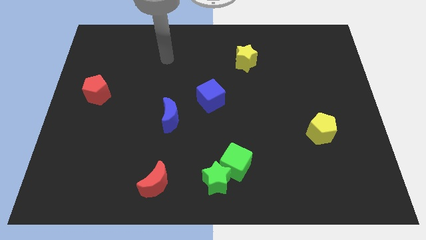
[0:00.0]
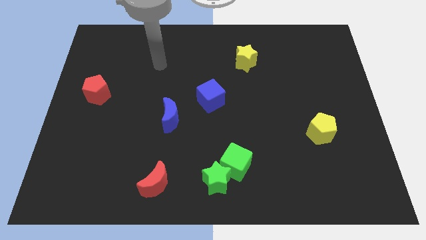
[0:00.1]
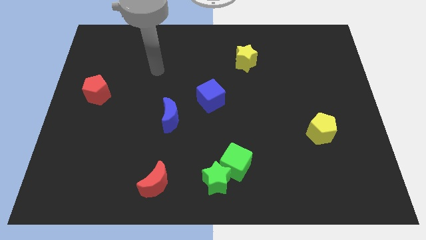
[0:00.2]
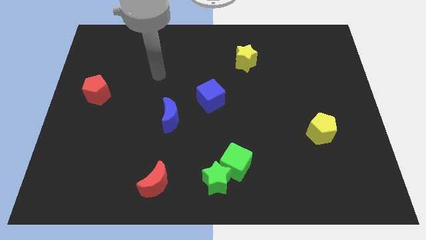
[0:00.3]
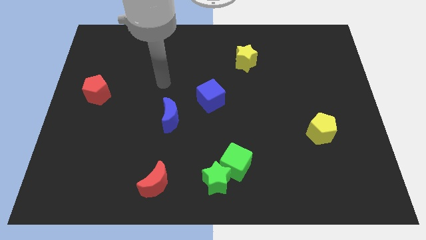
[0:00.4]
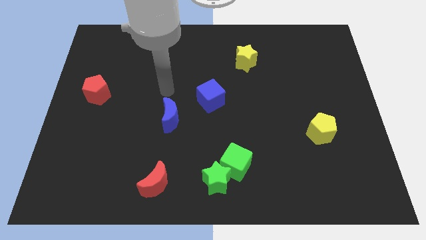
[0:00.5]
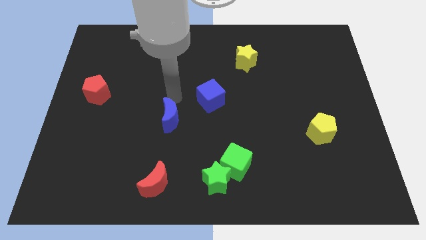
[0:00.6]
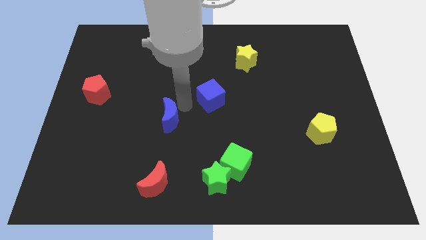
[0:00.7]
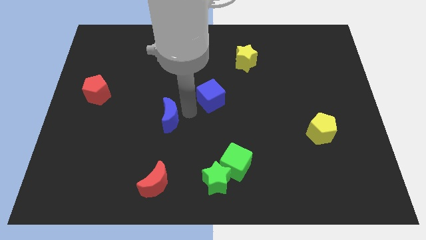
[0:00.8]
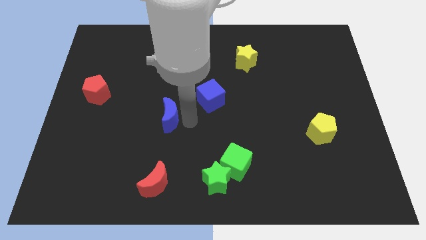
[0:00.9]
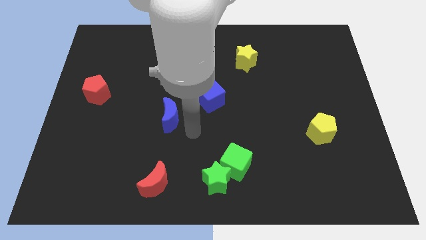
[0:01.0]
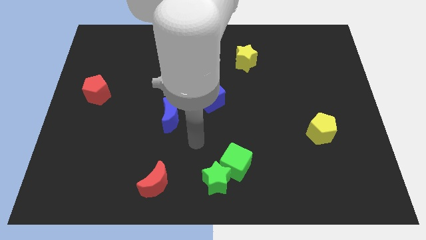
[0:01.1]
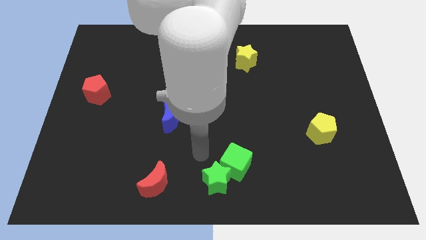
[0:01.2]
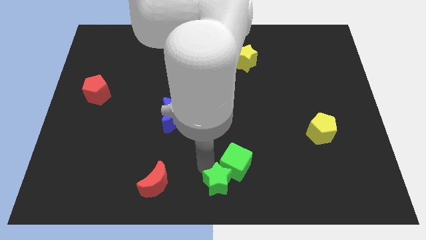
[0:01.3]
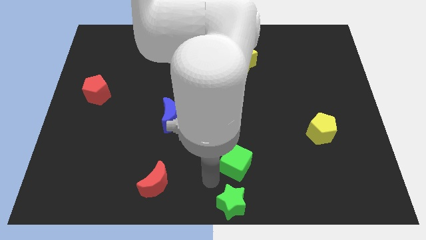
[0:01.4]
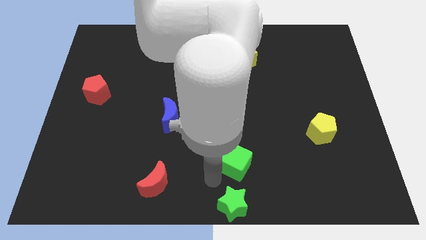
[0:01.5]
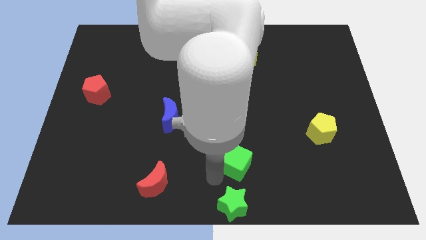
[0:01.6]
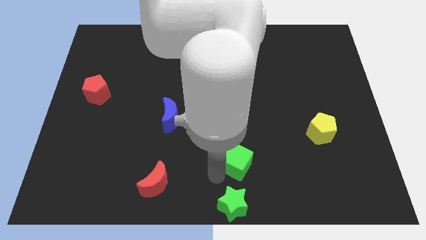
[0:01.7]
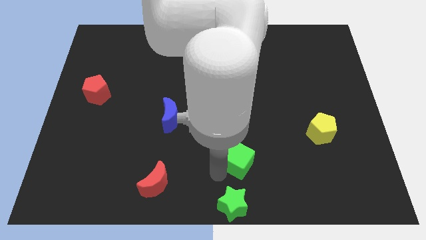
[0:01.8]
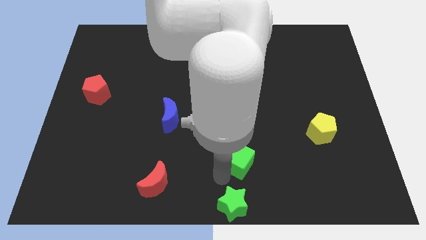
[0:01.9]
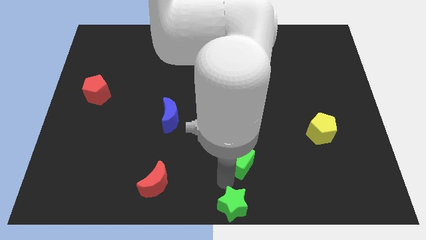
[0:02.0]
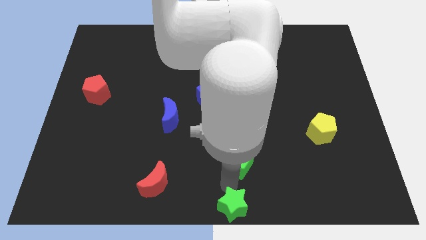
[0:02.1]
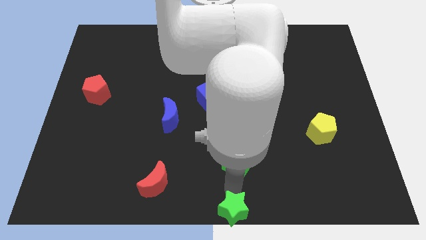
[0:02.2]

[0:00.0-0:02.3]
move the green cube away from the green star

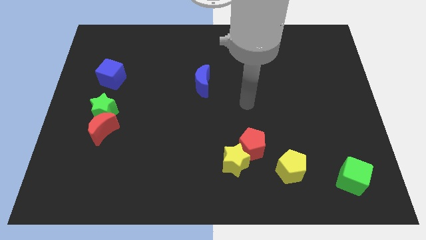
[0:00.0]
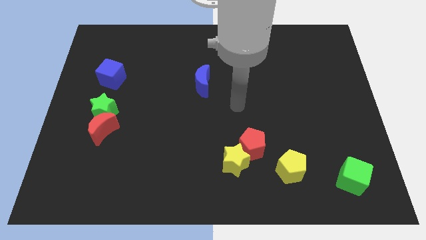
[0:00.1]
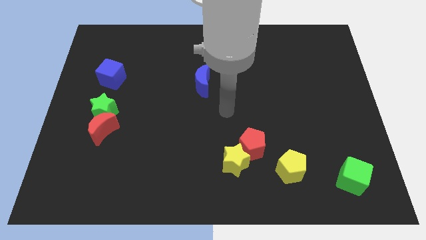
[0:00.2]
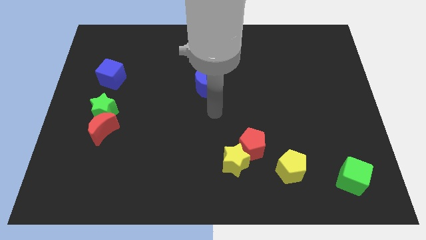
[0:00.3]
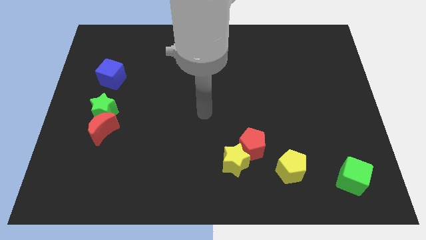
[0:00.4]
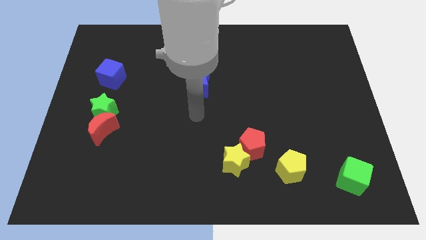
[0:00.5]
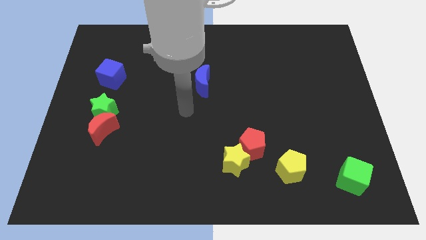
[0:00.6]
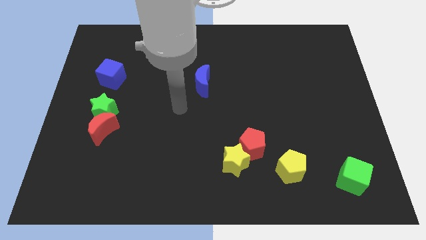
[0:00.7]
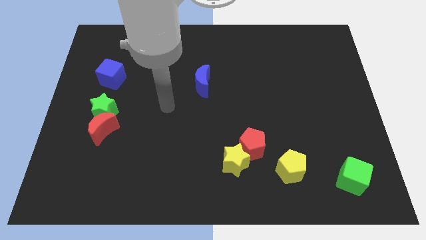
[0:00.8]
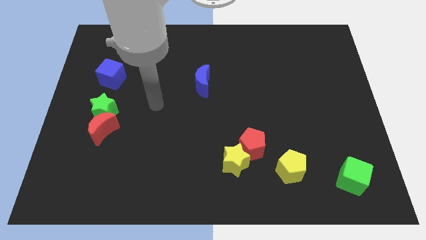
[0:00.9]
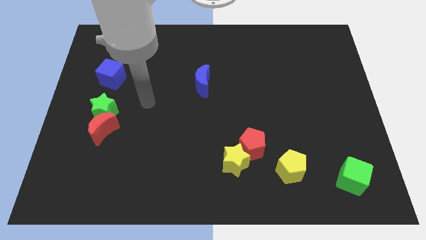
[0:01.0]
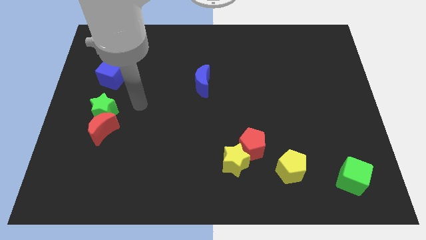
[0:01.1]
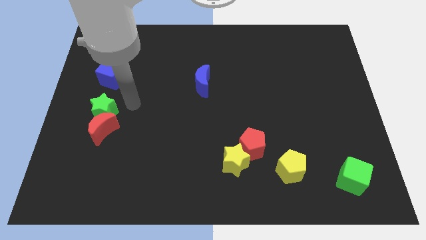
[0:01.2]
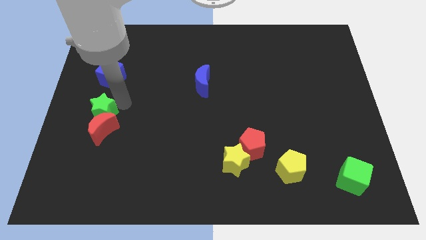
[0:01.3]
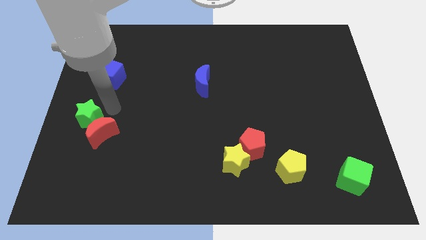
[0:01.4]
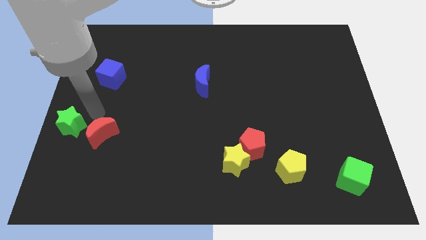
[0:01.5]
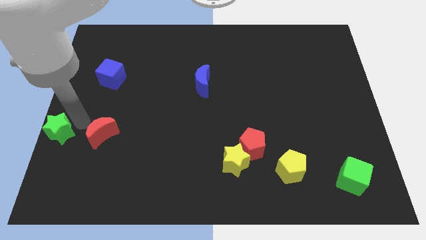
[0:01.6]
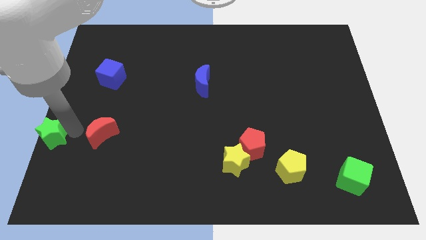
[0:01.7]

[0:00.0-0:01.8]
pull the red moon apart from the green star

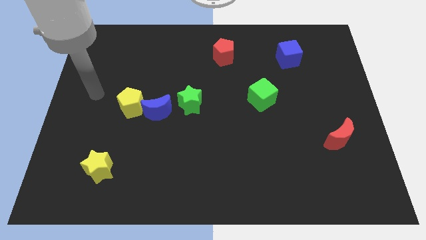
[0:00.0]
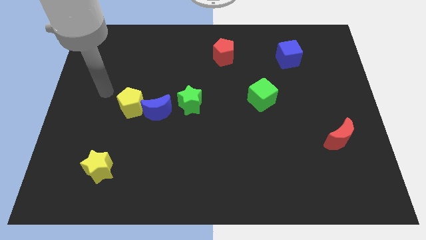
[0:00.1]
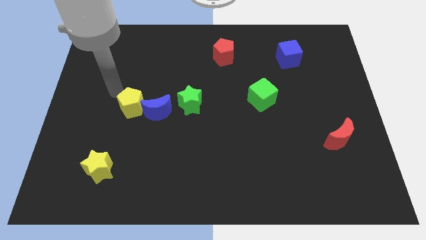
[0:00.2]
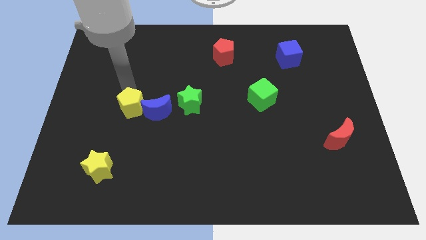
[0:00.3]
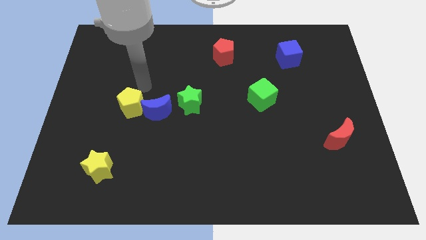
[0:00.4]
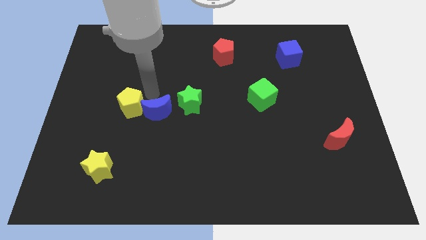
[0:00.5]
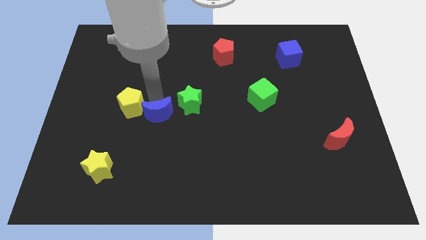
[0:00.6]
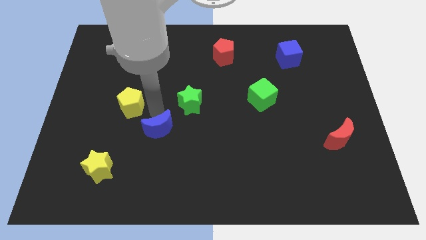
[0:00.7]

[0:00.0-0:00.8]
separate the yellow pentagon from the blue moon

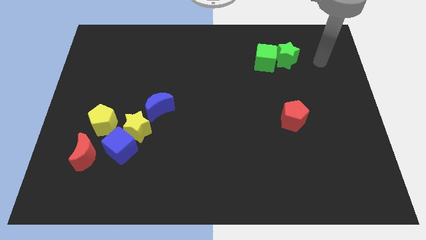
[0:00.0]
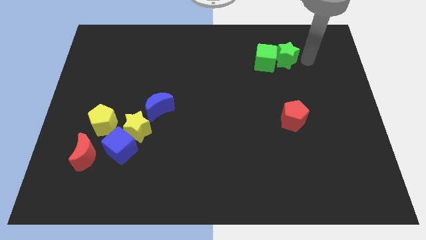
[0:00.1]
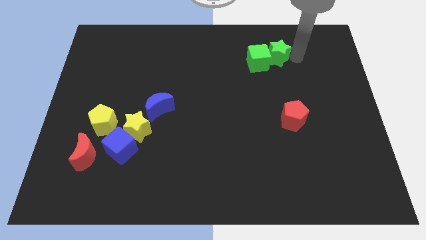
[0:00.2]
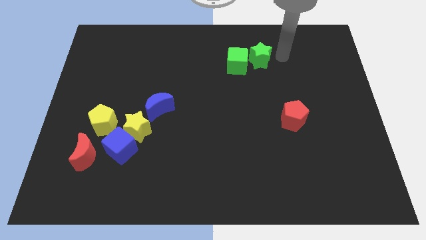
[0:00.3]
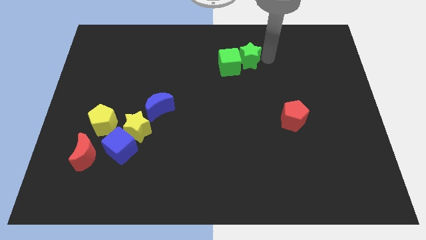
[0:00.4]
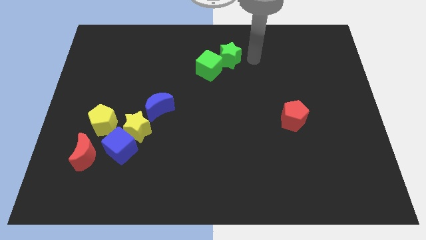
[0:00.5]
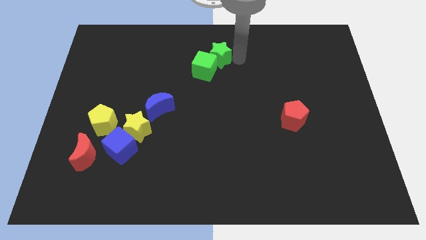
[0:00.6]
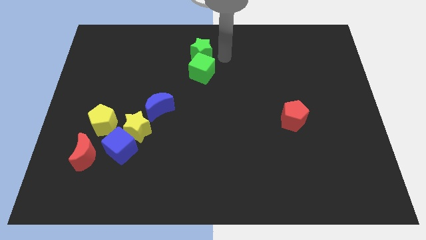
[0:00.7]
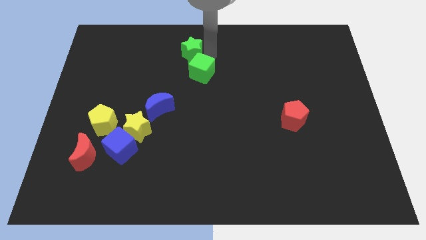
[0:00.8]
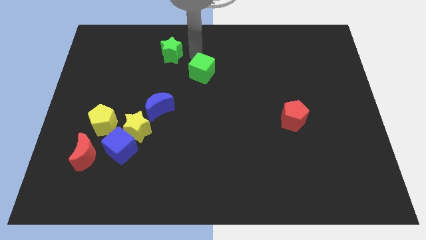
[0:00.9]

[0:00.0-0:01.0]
pull the green cube apart from the green star

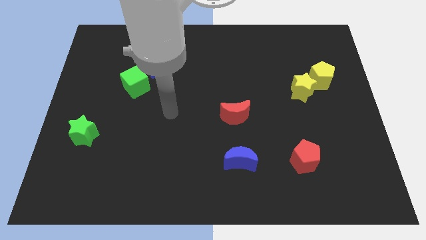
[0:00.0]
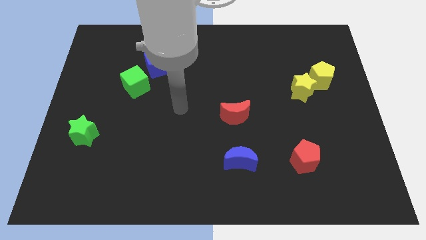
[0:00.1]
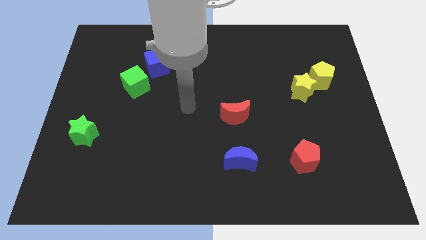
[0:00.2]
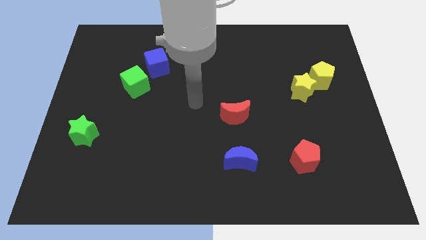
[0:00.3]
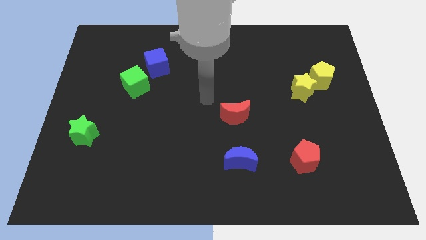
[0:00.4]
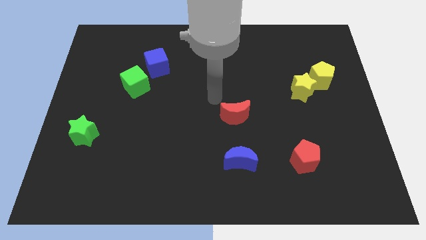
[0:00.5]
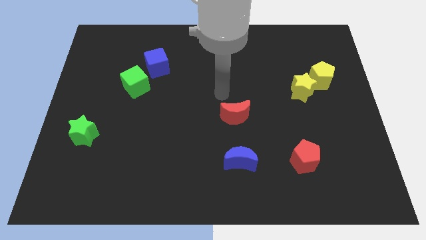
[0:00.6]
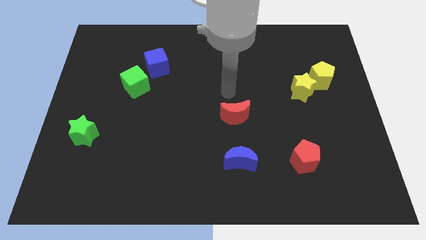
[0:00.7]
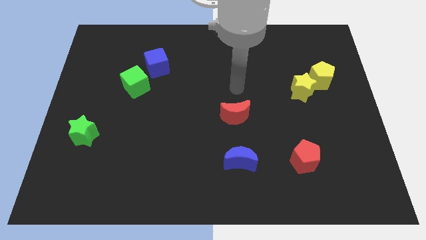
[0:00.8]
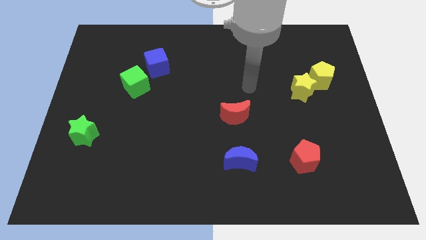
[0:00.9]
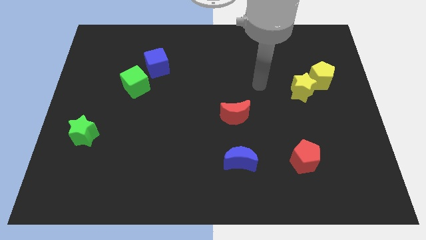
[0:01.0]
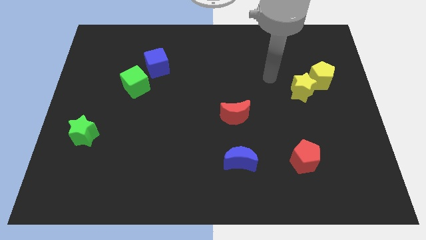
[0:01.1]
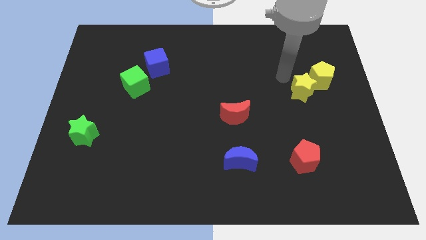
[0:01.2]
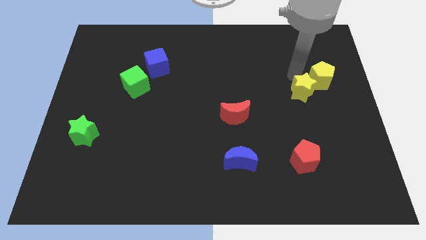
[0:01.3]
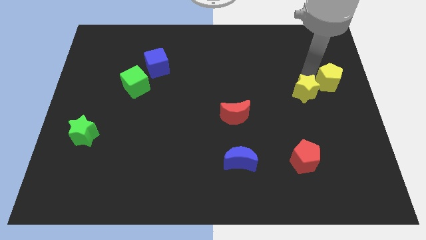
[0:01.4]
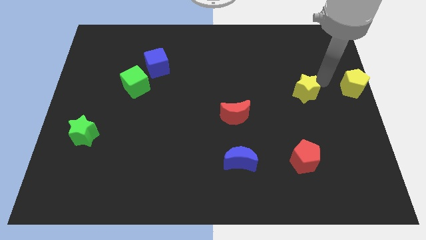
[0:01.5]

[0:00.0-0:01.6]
pull the yellow star apart from the yellow pentagon

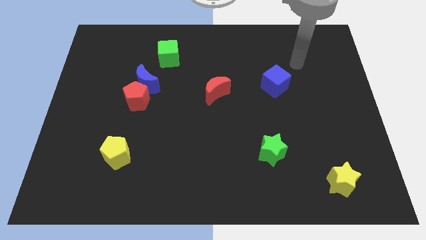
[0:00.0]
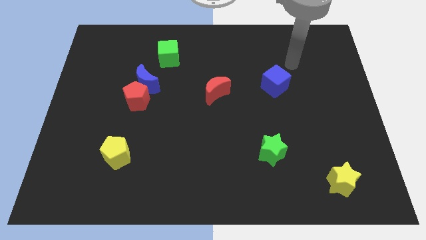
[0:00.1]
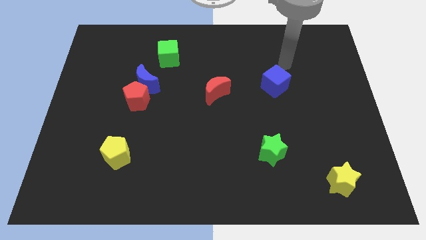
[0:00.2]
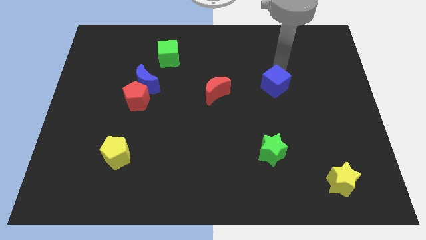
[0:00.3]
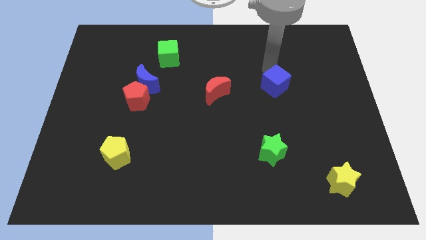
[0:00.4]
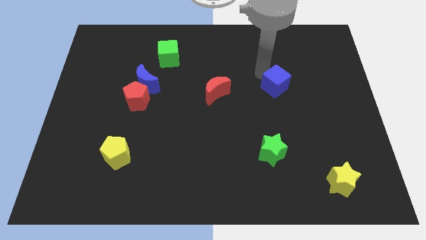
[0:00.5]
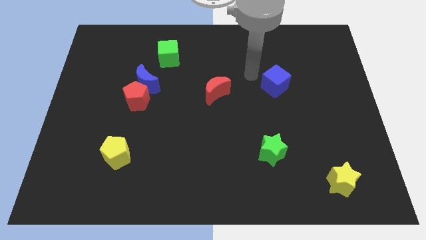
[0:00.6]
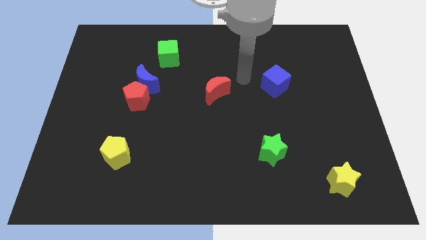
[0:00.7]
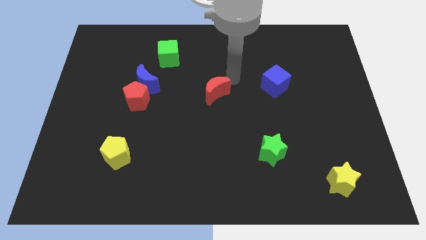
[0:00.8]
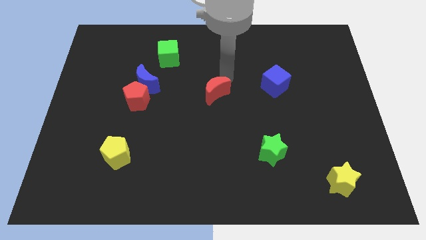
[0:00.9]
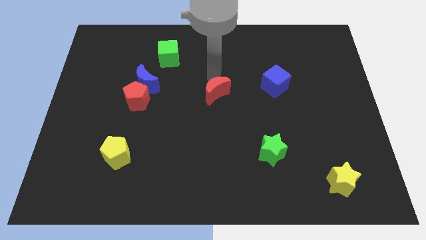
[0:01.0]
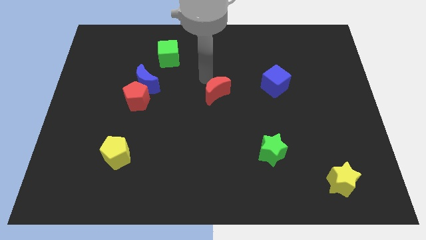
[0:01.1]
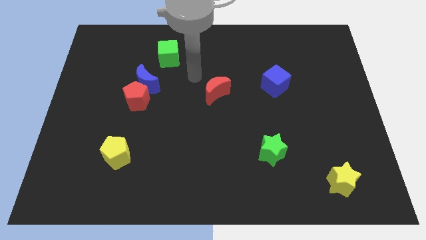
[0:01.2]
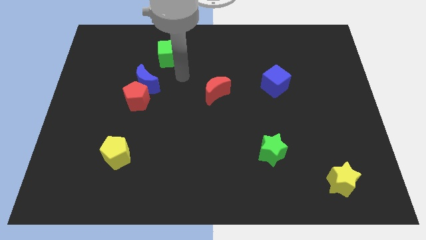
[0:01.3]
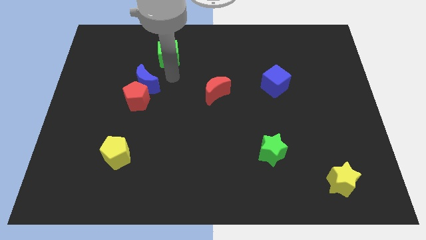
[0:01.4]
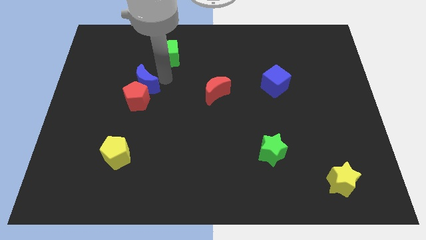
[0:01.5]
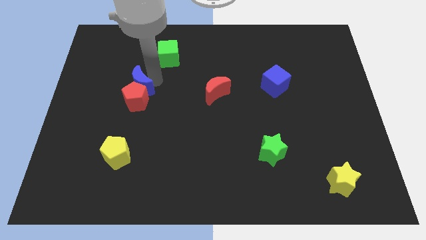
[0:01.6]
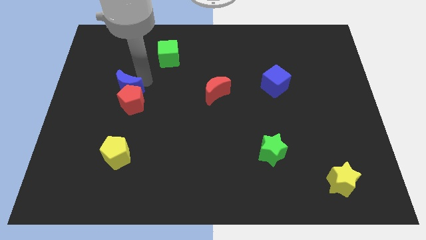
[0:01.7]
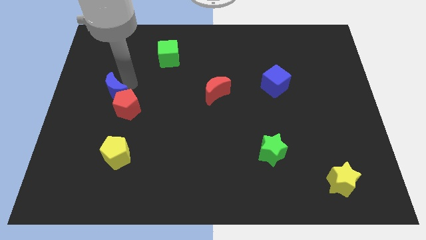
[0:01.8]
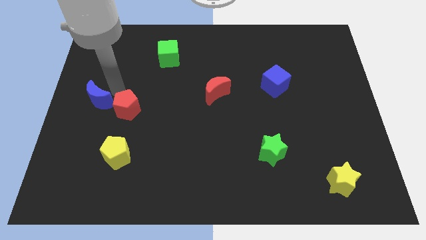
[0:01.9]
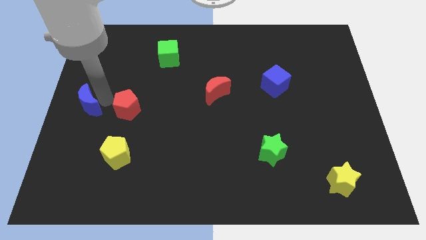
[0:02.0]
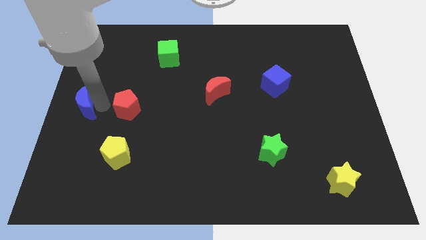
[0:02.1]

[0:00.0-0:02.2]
separate the red pentagon from the blue moon
